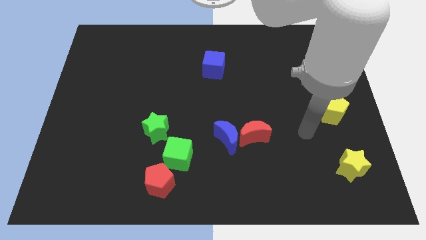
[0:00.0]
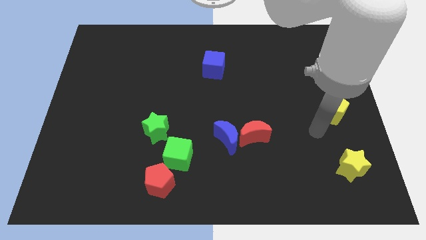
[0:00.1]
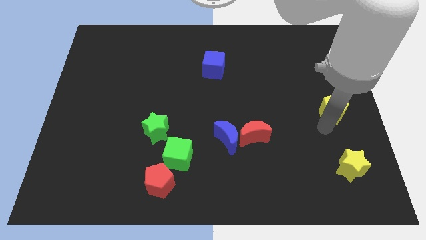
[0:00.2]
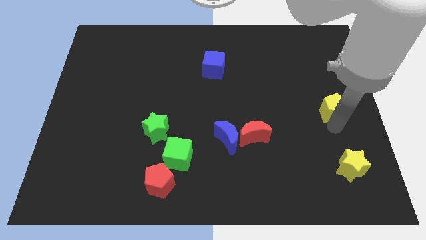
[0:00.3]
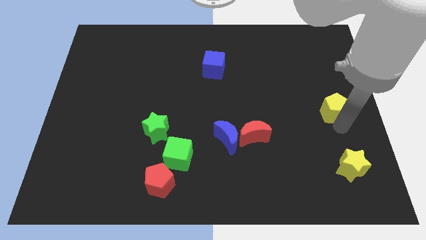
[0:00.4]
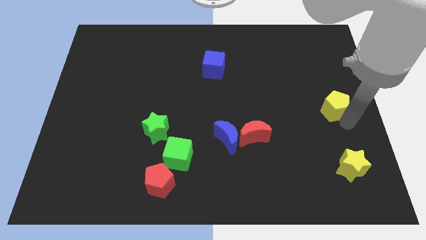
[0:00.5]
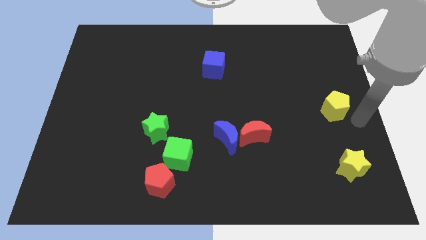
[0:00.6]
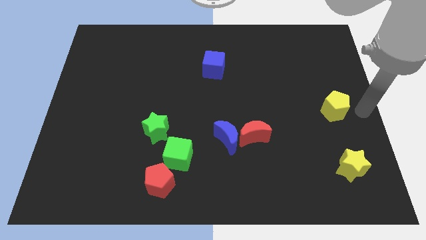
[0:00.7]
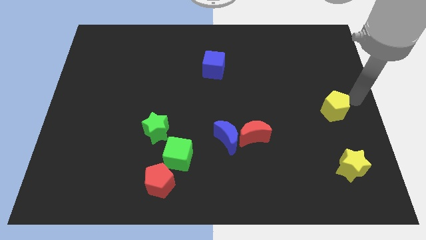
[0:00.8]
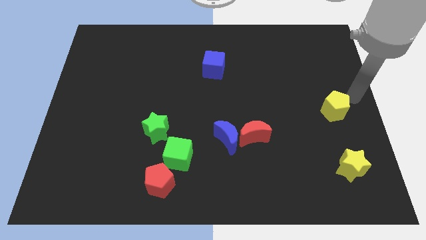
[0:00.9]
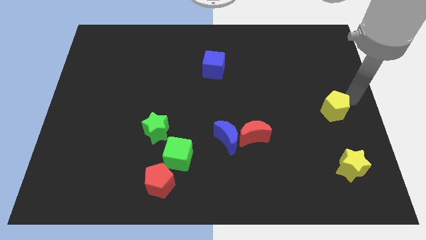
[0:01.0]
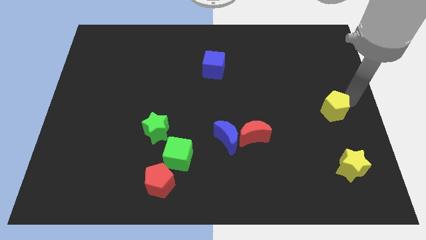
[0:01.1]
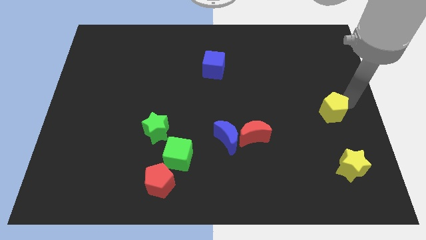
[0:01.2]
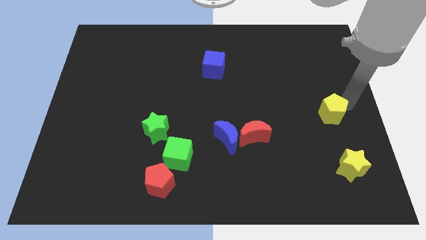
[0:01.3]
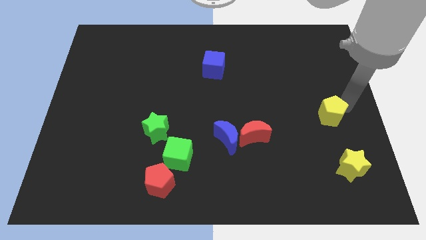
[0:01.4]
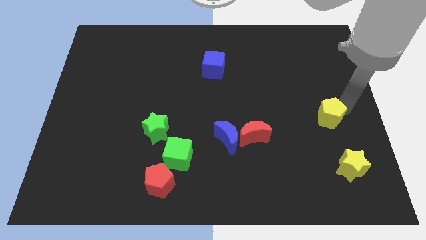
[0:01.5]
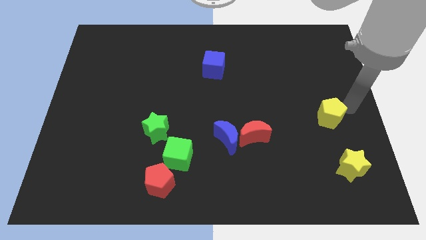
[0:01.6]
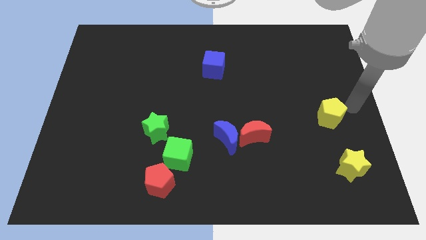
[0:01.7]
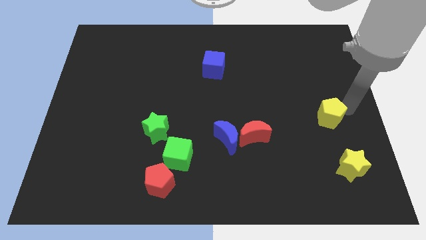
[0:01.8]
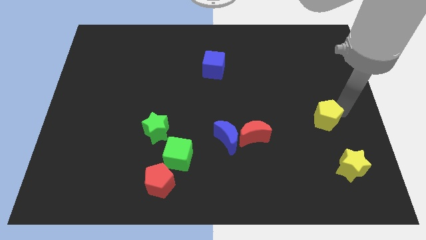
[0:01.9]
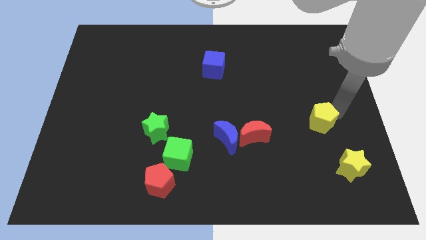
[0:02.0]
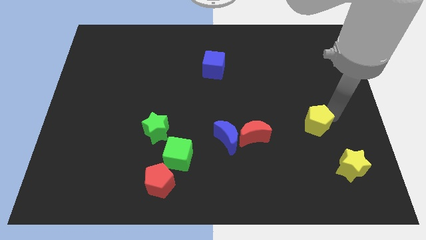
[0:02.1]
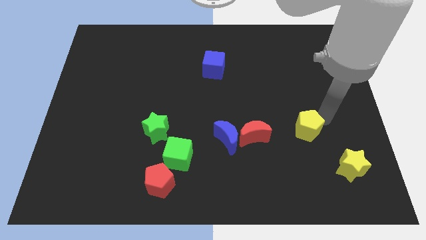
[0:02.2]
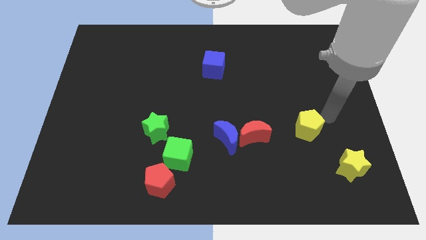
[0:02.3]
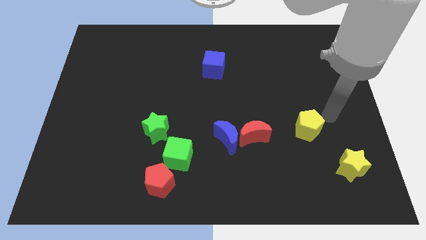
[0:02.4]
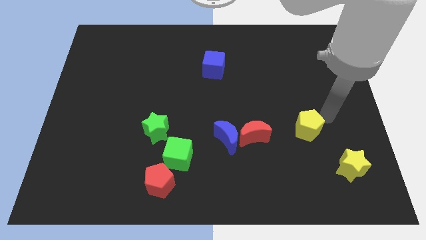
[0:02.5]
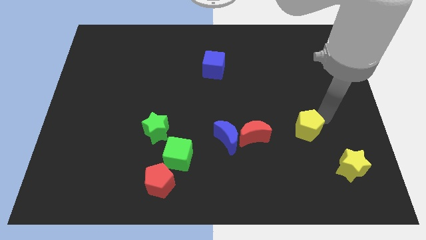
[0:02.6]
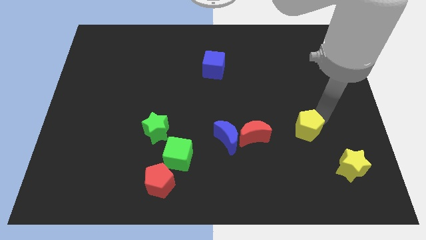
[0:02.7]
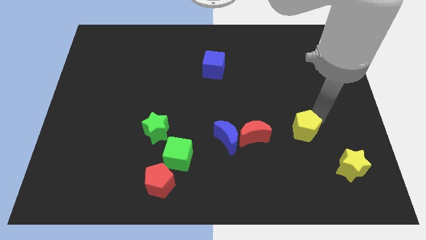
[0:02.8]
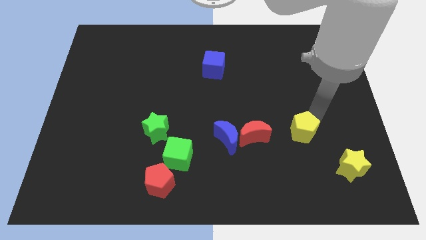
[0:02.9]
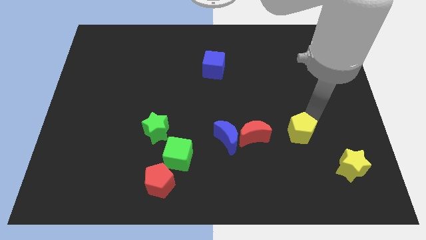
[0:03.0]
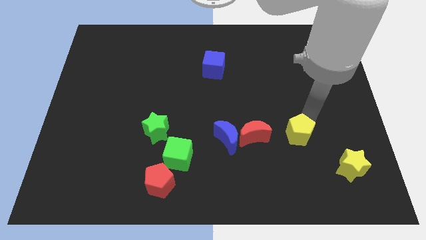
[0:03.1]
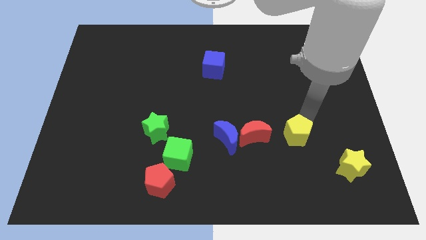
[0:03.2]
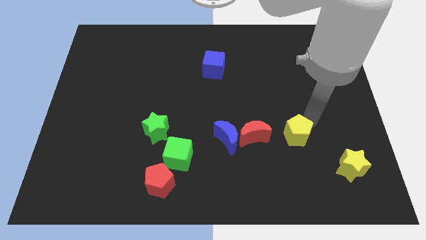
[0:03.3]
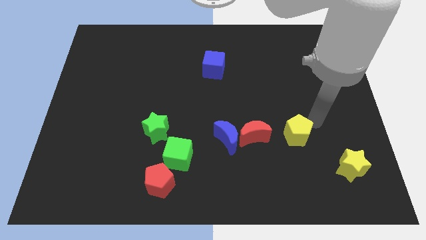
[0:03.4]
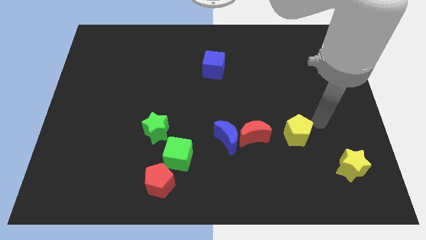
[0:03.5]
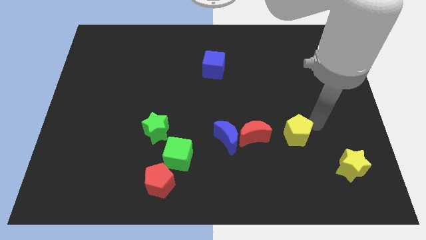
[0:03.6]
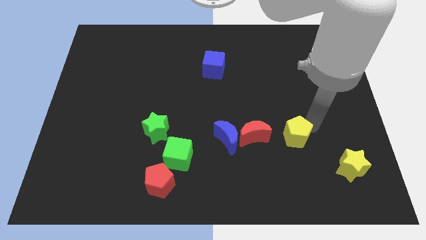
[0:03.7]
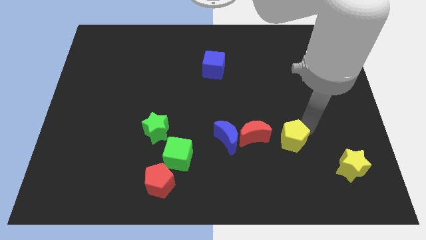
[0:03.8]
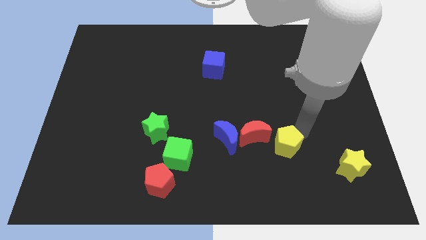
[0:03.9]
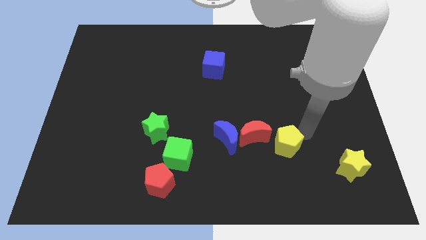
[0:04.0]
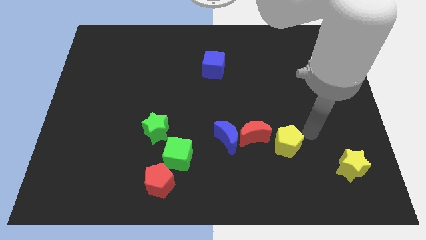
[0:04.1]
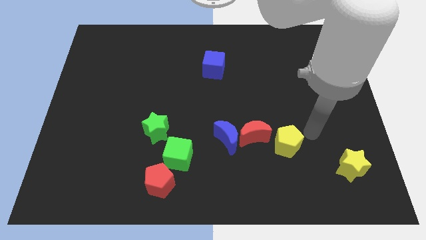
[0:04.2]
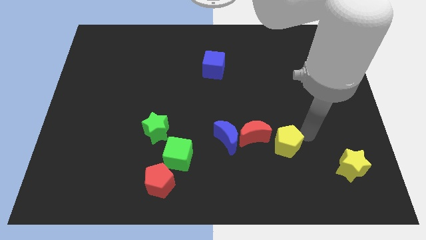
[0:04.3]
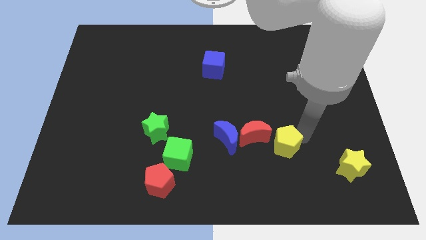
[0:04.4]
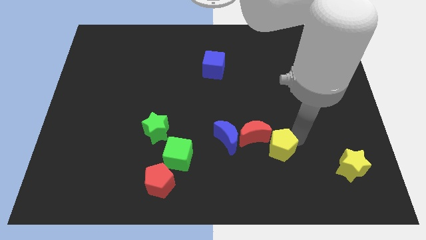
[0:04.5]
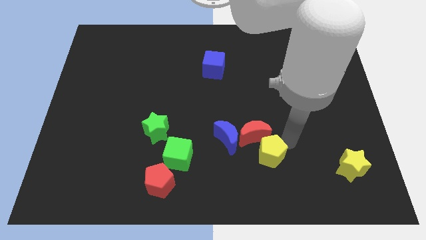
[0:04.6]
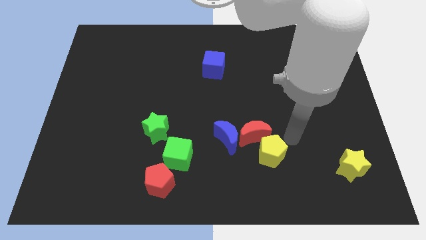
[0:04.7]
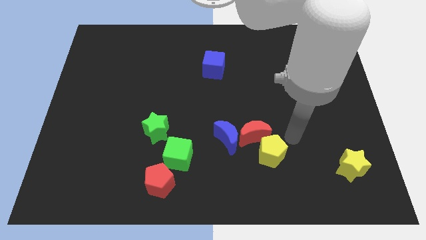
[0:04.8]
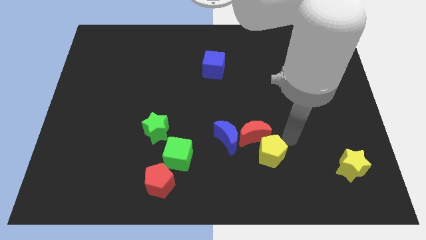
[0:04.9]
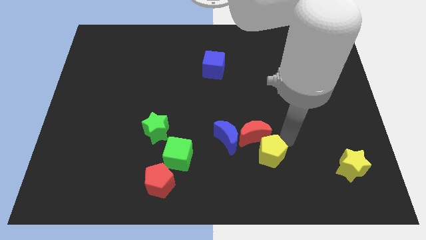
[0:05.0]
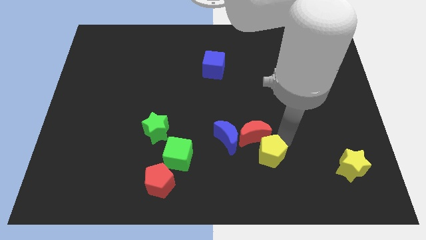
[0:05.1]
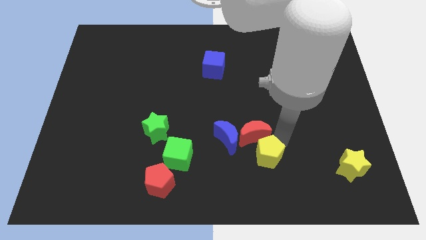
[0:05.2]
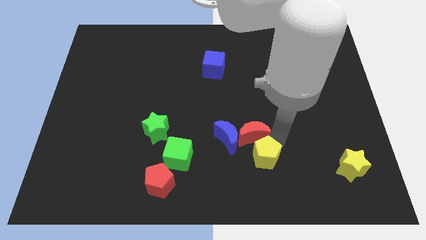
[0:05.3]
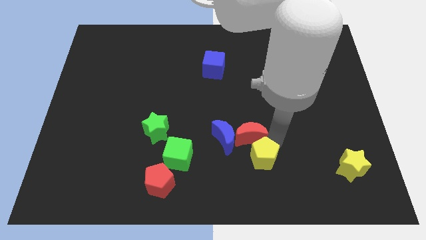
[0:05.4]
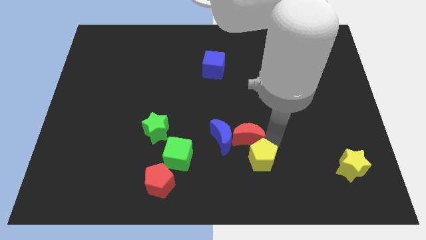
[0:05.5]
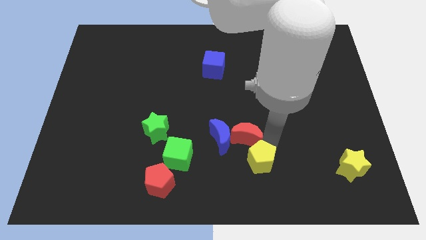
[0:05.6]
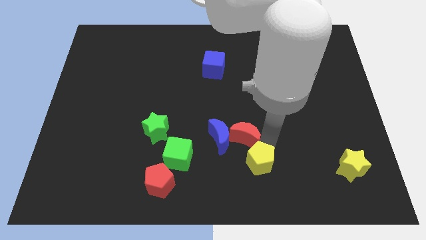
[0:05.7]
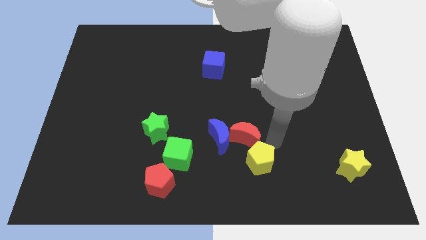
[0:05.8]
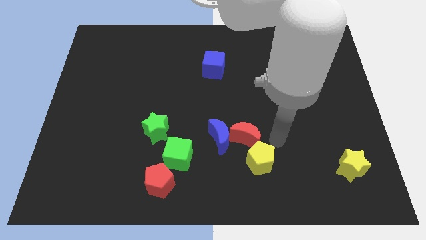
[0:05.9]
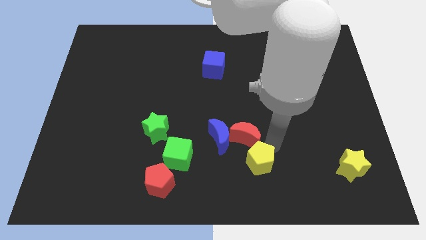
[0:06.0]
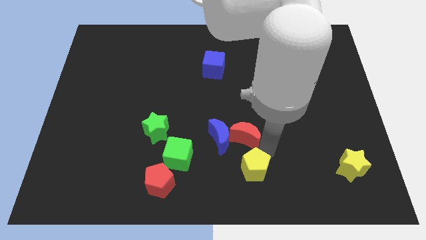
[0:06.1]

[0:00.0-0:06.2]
push the yellow pentagon to the bottom
